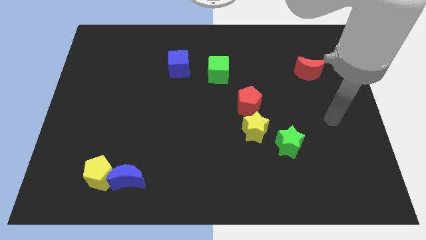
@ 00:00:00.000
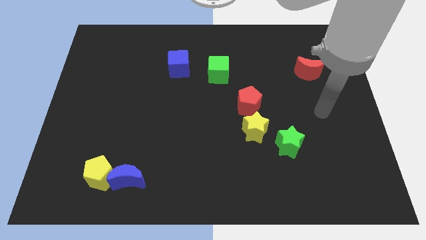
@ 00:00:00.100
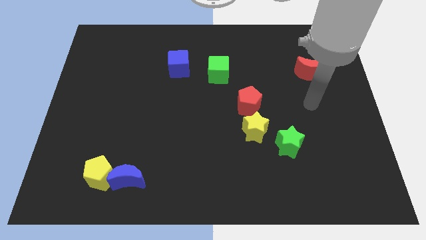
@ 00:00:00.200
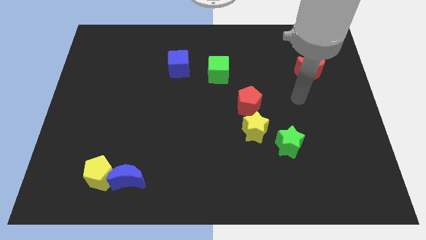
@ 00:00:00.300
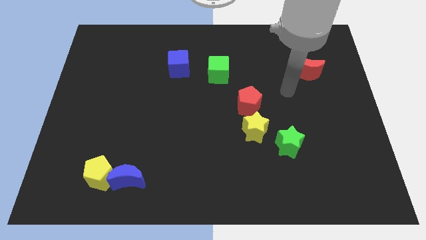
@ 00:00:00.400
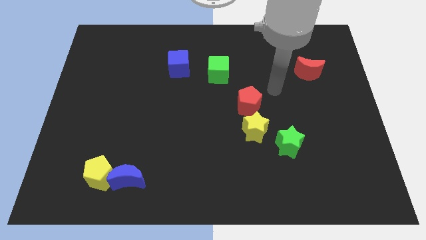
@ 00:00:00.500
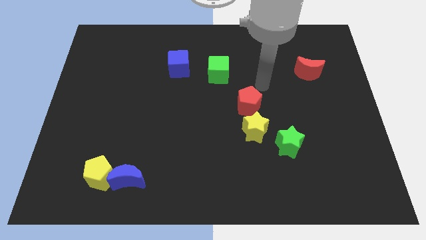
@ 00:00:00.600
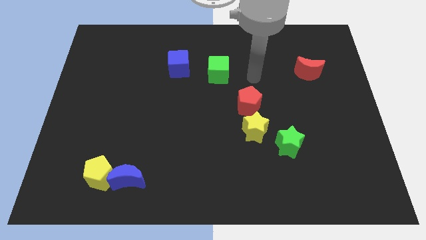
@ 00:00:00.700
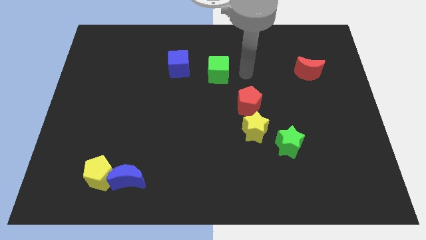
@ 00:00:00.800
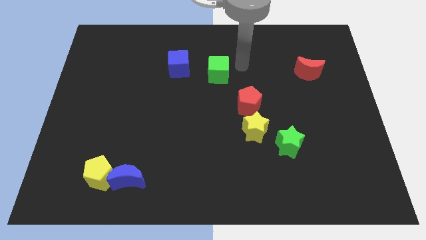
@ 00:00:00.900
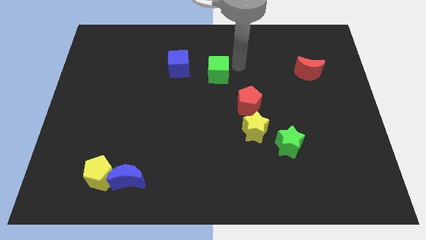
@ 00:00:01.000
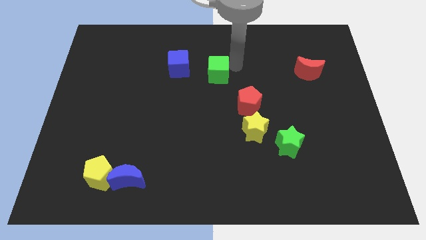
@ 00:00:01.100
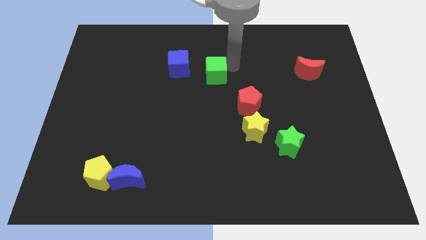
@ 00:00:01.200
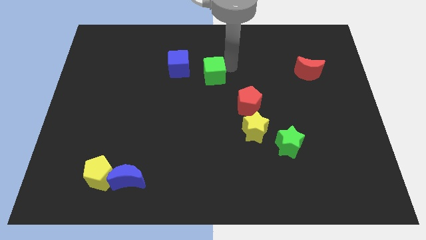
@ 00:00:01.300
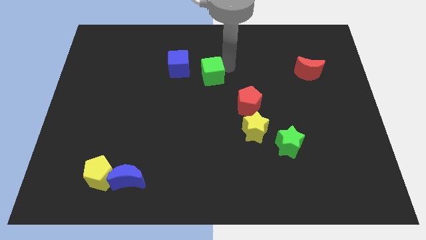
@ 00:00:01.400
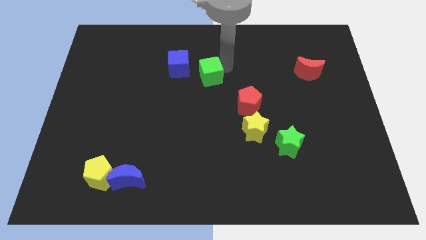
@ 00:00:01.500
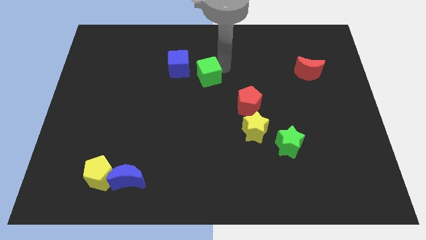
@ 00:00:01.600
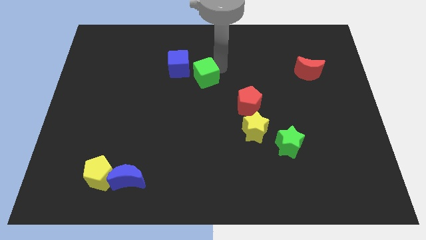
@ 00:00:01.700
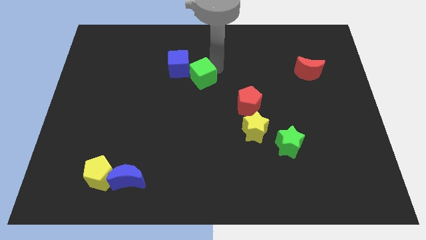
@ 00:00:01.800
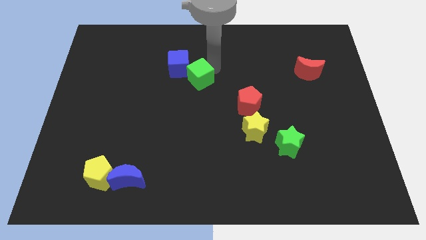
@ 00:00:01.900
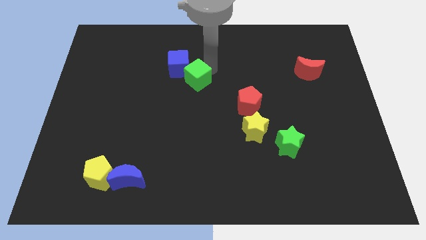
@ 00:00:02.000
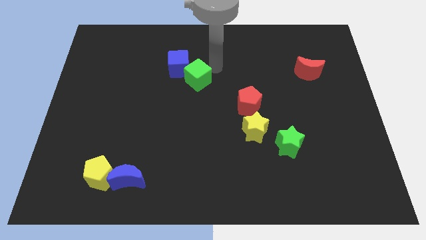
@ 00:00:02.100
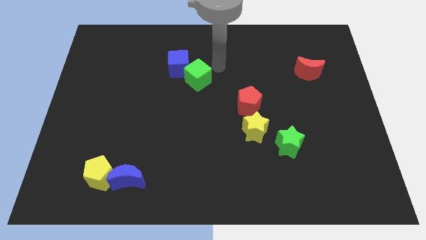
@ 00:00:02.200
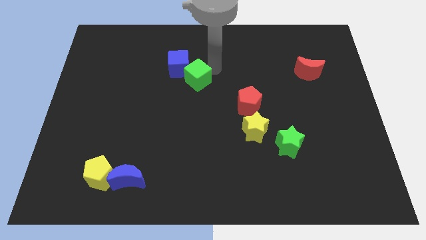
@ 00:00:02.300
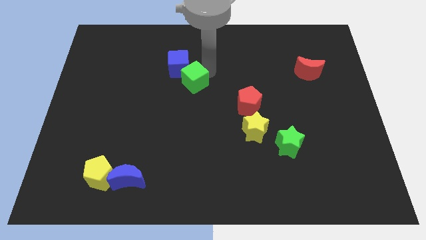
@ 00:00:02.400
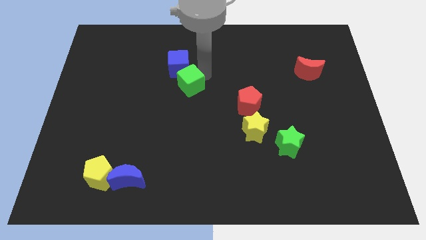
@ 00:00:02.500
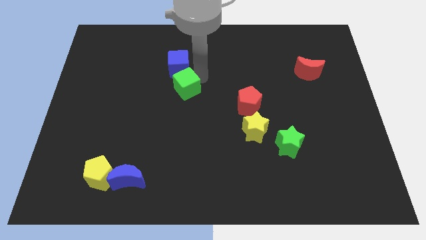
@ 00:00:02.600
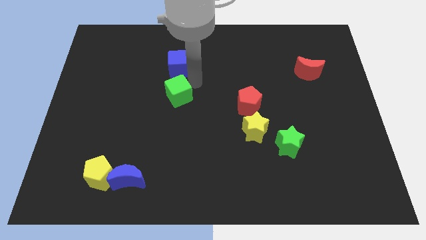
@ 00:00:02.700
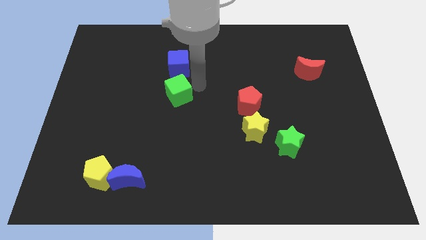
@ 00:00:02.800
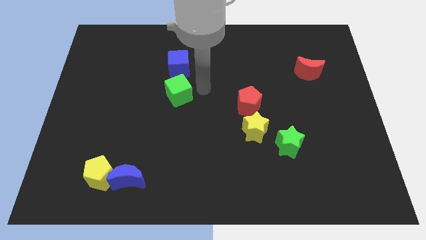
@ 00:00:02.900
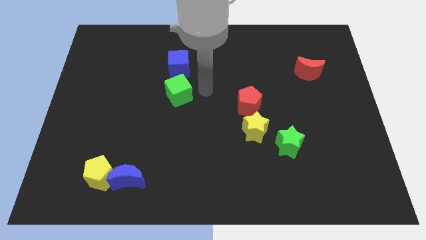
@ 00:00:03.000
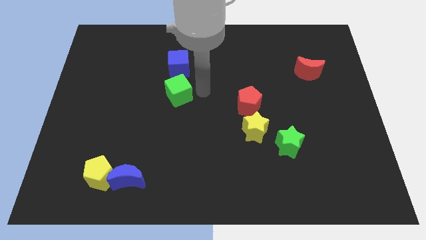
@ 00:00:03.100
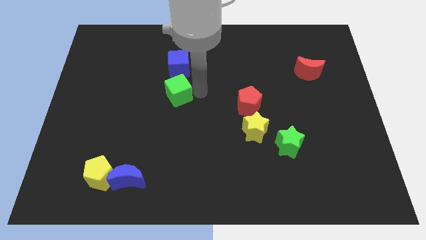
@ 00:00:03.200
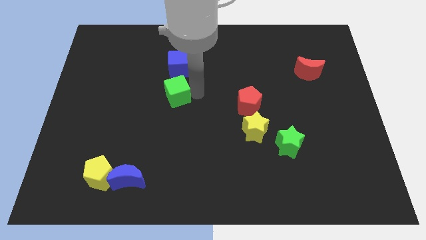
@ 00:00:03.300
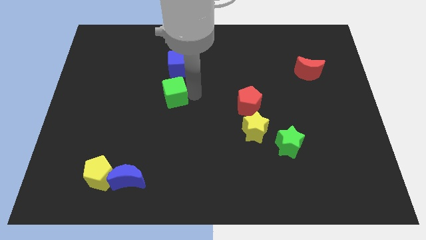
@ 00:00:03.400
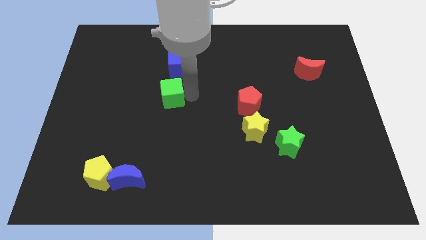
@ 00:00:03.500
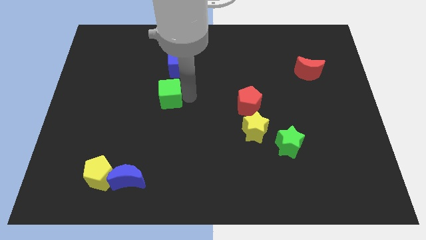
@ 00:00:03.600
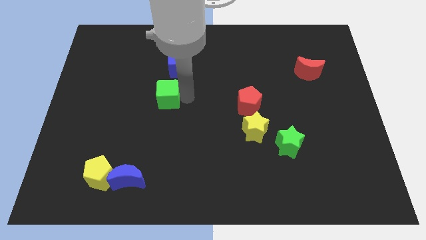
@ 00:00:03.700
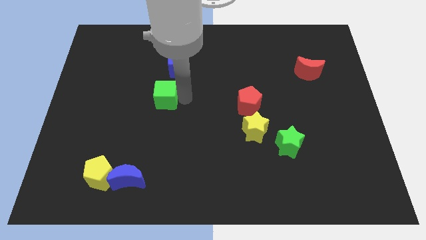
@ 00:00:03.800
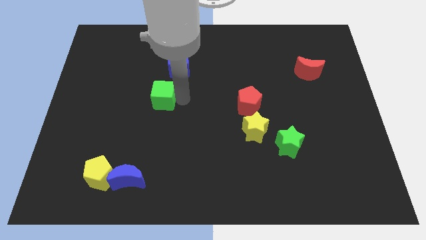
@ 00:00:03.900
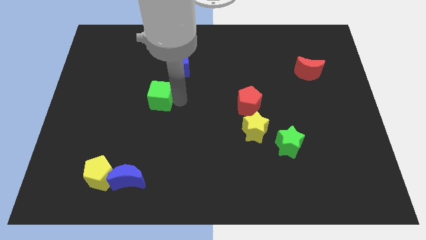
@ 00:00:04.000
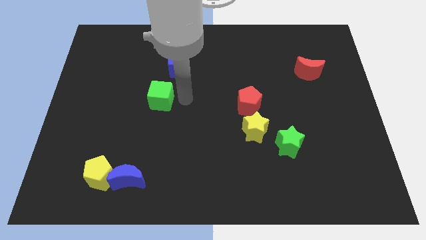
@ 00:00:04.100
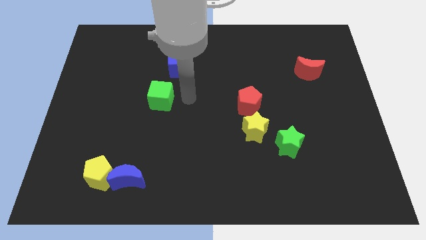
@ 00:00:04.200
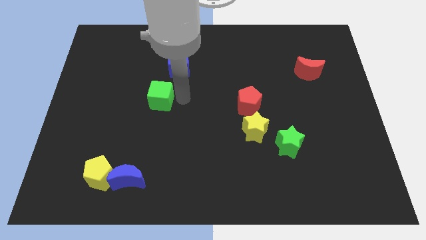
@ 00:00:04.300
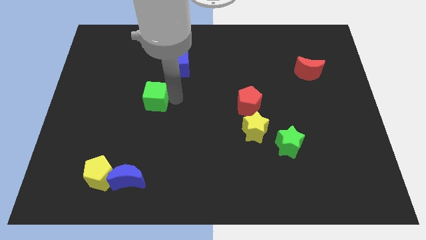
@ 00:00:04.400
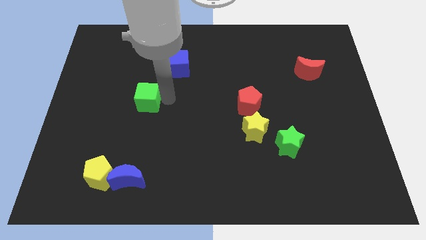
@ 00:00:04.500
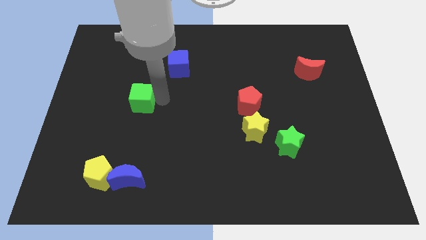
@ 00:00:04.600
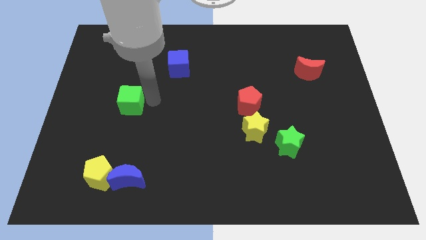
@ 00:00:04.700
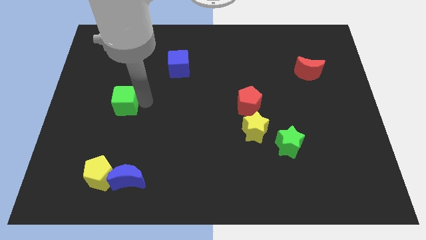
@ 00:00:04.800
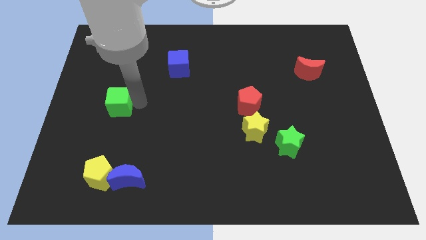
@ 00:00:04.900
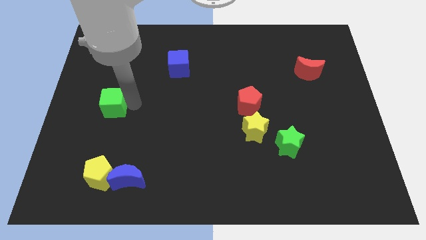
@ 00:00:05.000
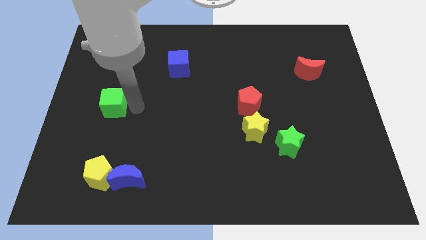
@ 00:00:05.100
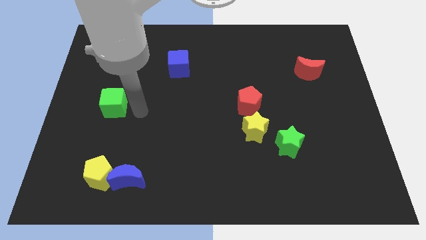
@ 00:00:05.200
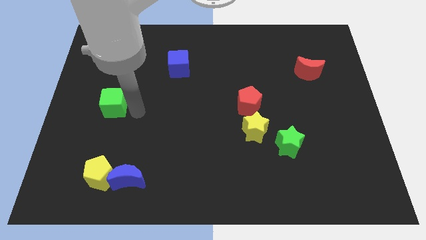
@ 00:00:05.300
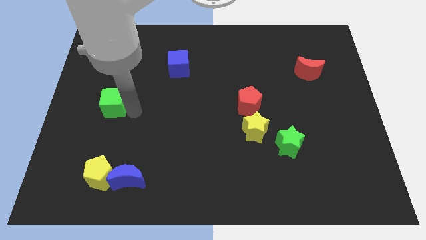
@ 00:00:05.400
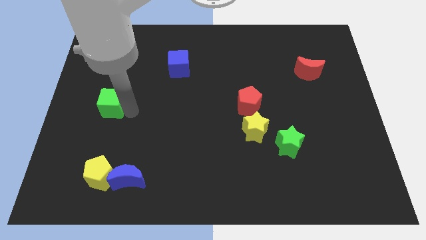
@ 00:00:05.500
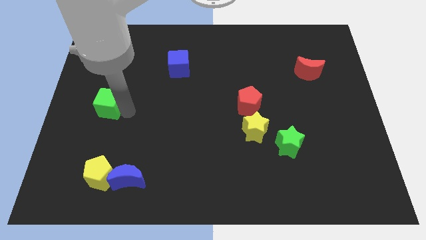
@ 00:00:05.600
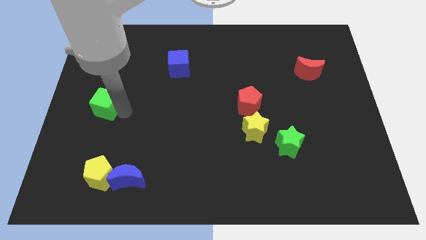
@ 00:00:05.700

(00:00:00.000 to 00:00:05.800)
slide the green cube to the left side of the board

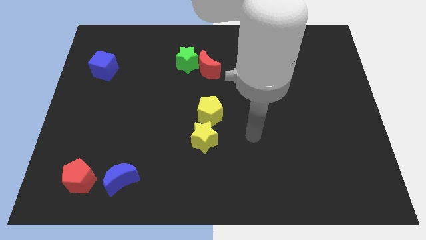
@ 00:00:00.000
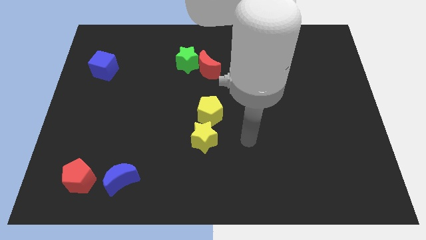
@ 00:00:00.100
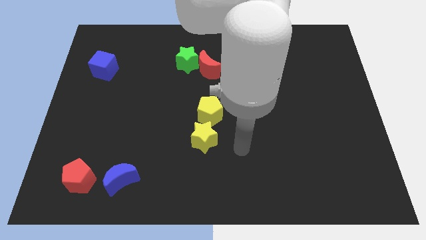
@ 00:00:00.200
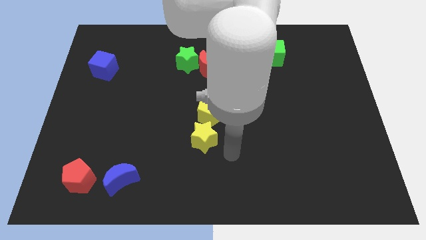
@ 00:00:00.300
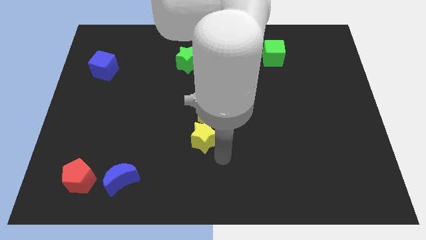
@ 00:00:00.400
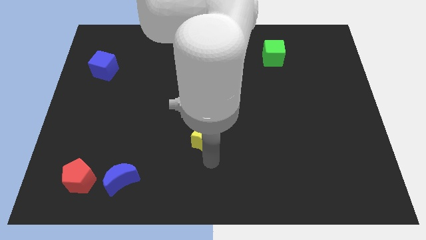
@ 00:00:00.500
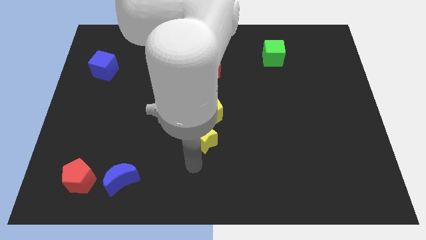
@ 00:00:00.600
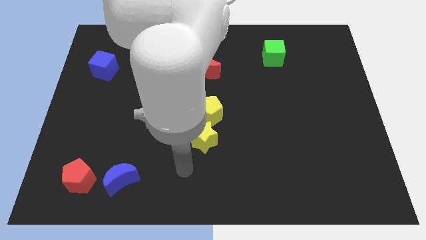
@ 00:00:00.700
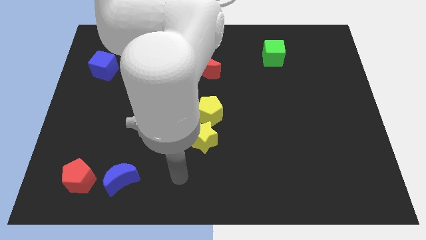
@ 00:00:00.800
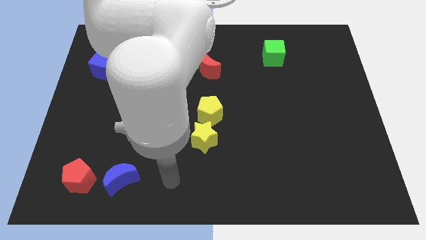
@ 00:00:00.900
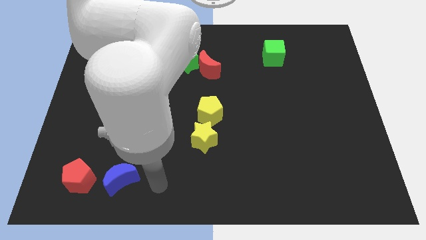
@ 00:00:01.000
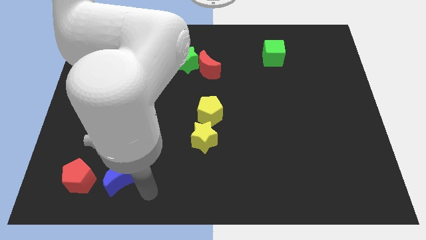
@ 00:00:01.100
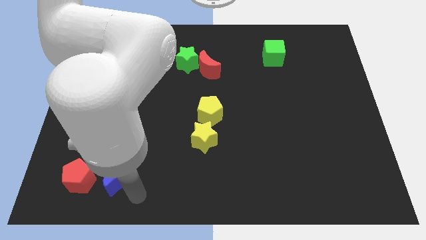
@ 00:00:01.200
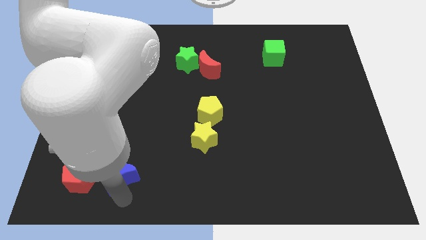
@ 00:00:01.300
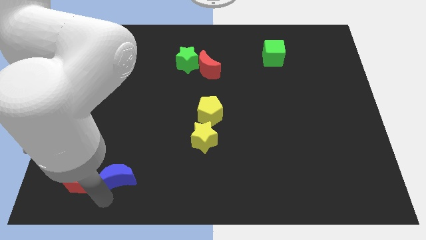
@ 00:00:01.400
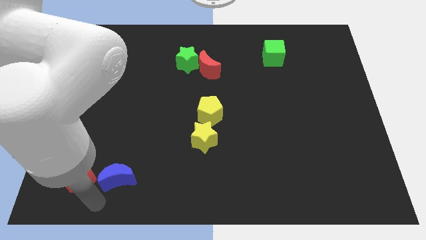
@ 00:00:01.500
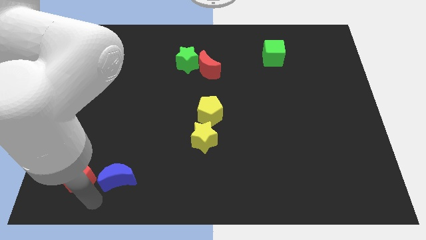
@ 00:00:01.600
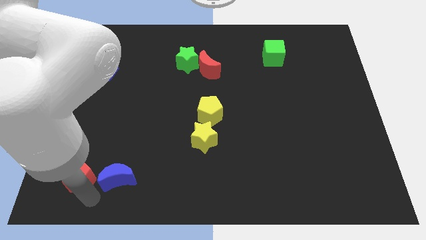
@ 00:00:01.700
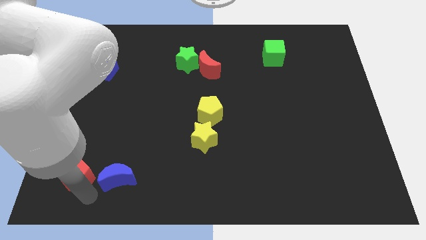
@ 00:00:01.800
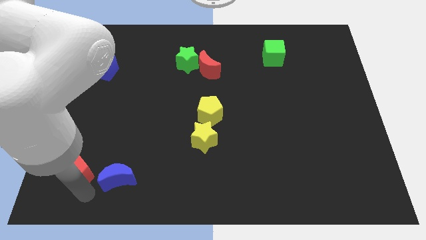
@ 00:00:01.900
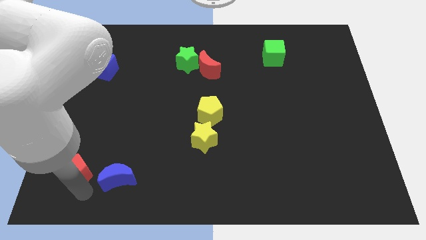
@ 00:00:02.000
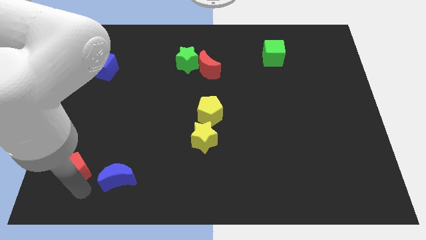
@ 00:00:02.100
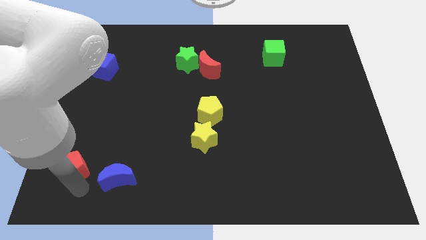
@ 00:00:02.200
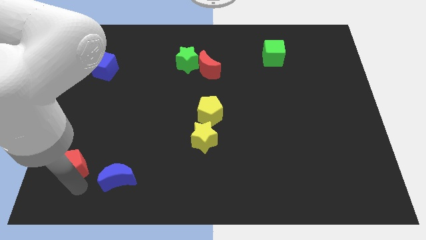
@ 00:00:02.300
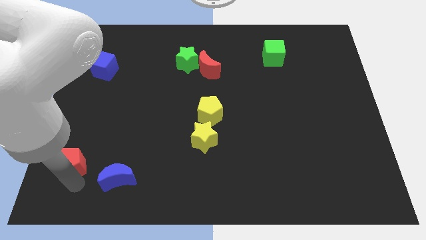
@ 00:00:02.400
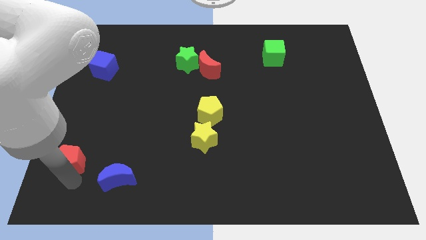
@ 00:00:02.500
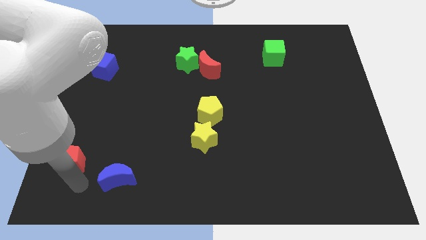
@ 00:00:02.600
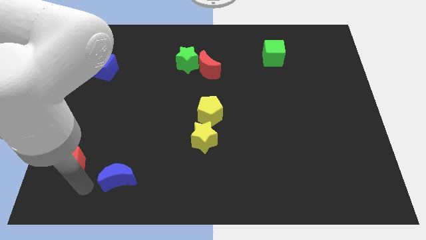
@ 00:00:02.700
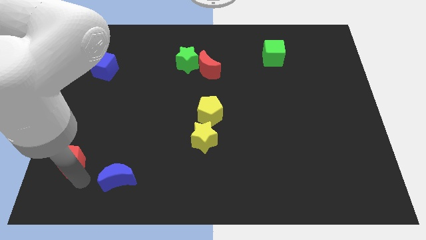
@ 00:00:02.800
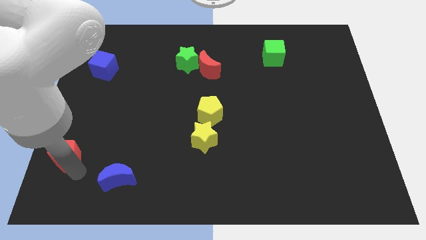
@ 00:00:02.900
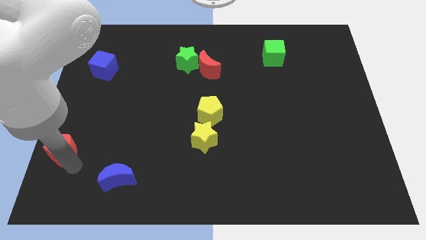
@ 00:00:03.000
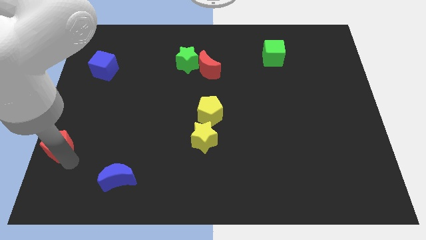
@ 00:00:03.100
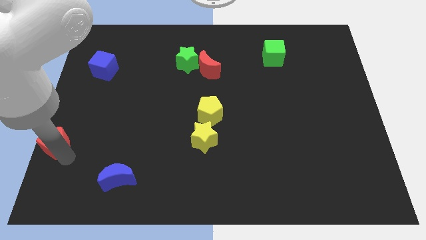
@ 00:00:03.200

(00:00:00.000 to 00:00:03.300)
push the red pentagon to the left side of the board
